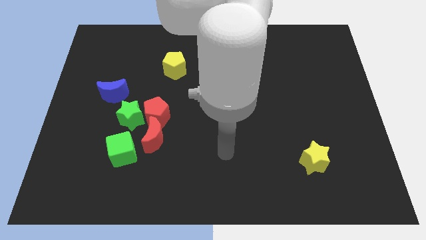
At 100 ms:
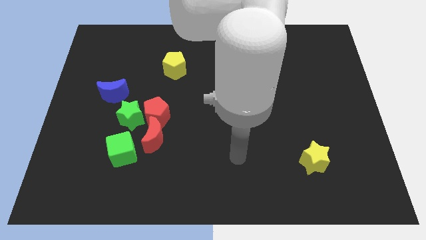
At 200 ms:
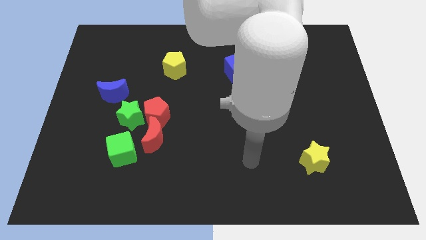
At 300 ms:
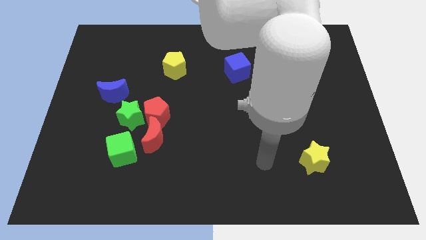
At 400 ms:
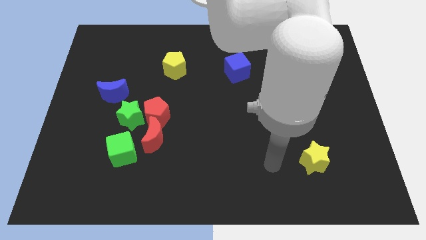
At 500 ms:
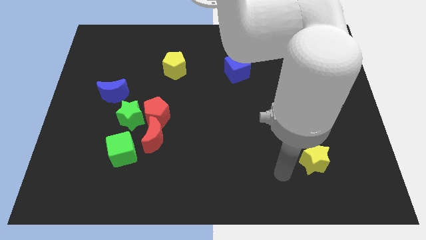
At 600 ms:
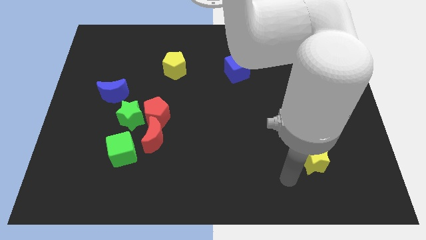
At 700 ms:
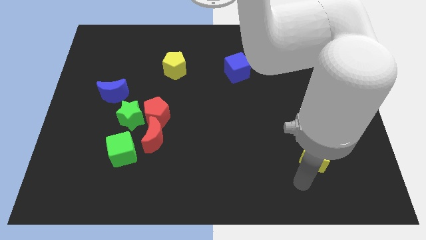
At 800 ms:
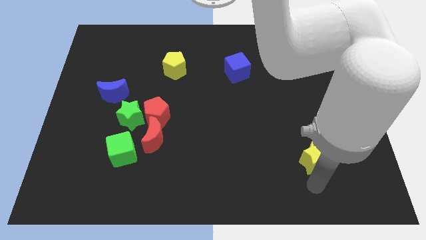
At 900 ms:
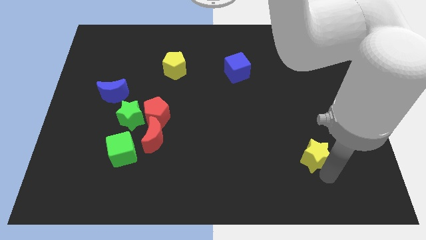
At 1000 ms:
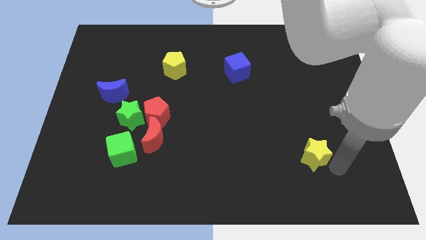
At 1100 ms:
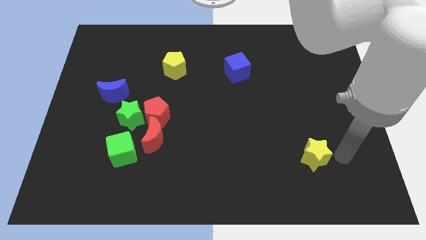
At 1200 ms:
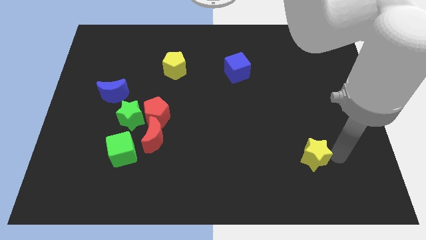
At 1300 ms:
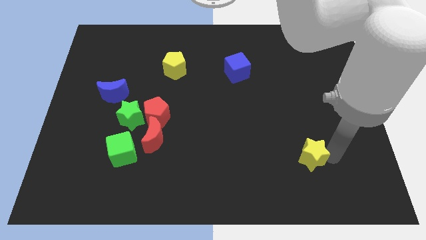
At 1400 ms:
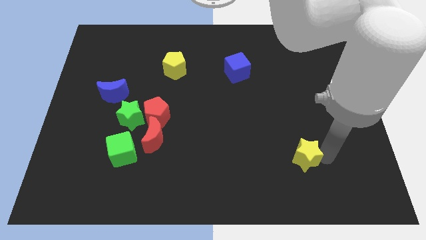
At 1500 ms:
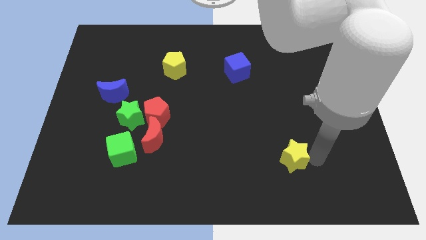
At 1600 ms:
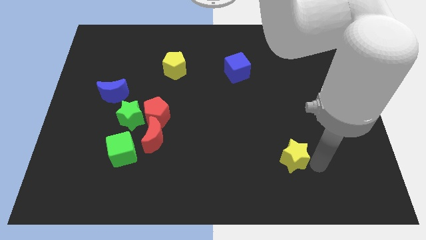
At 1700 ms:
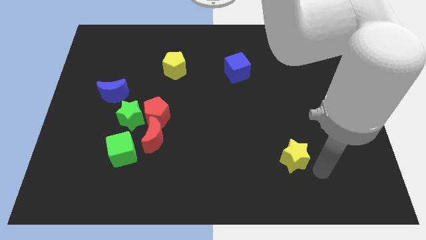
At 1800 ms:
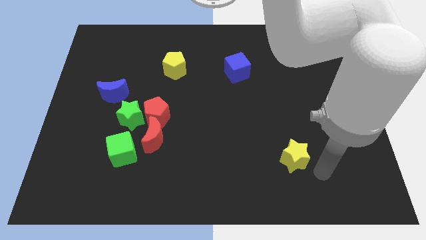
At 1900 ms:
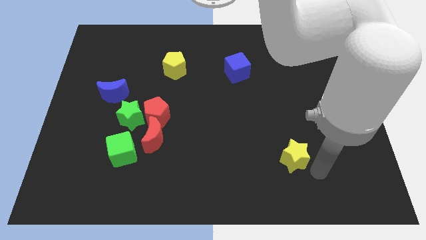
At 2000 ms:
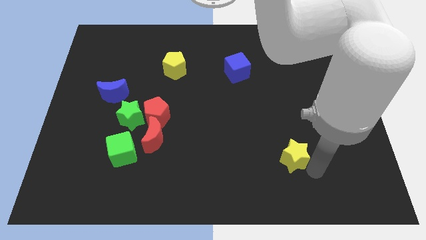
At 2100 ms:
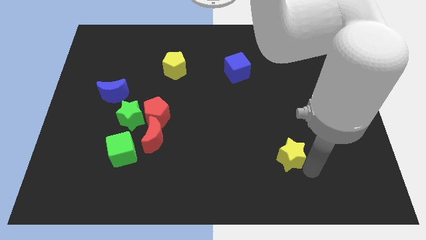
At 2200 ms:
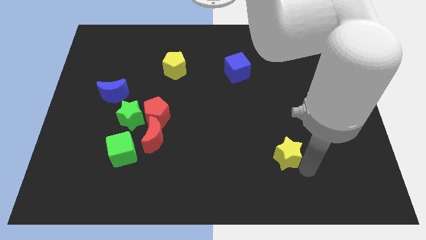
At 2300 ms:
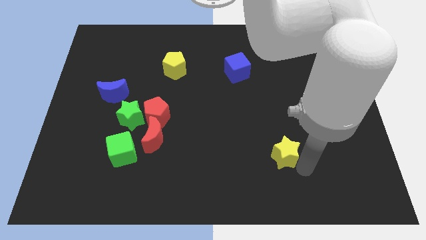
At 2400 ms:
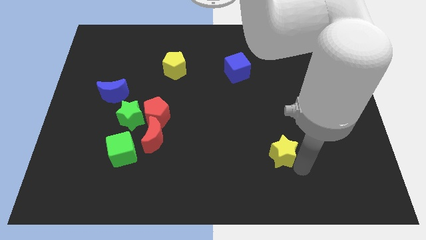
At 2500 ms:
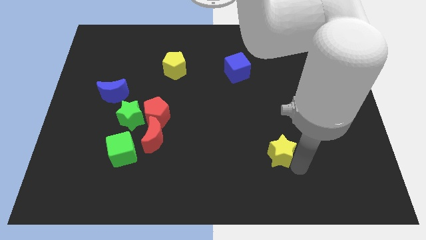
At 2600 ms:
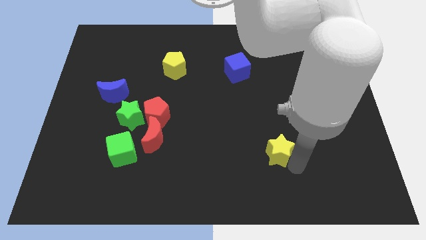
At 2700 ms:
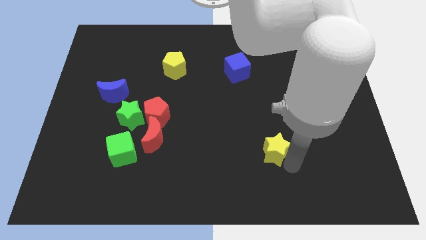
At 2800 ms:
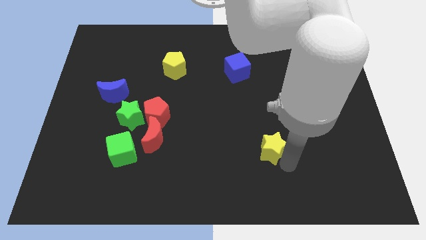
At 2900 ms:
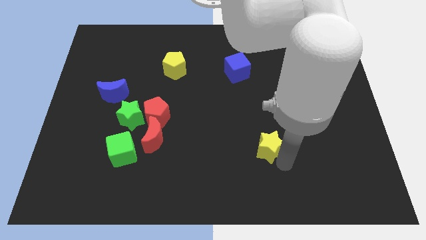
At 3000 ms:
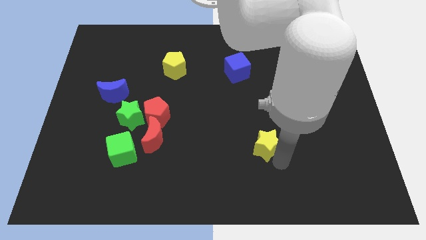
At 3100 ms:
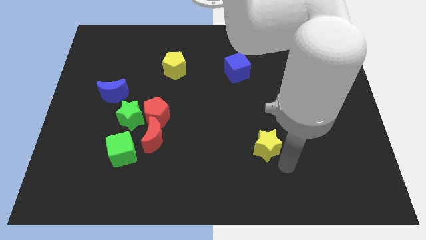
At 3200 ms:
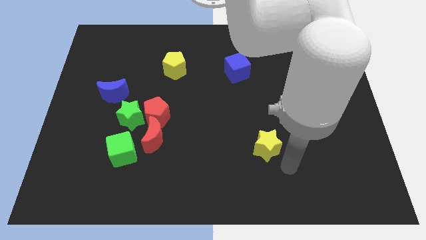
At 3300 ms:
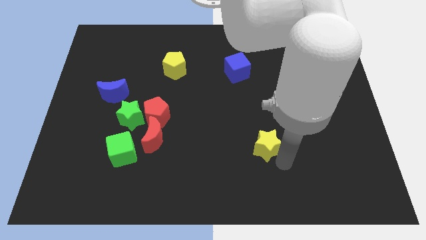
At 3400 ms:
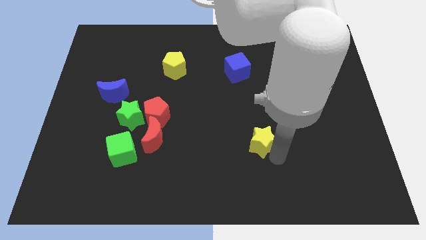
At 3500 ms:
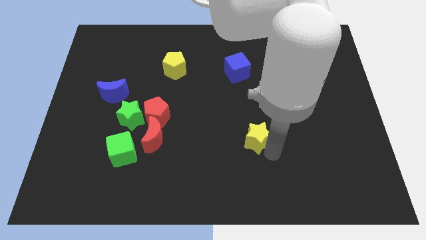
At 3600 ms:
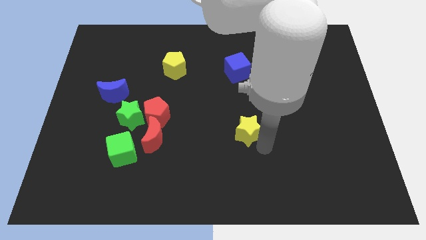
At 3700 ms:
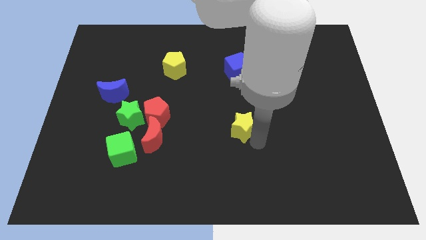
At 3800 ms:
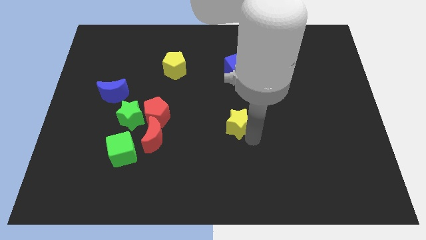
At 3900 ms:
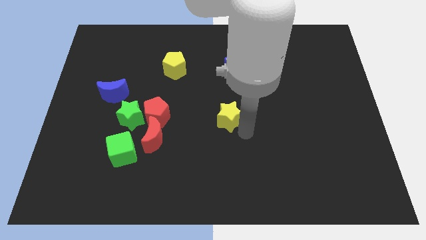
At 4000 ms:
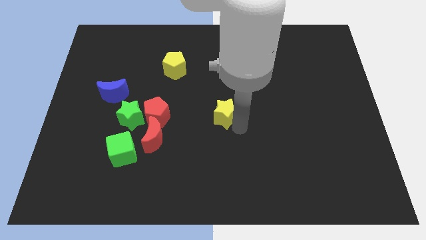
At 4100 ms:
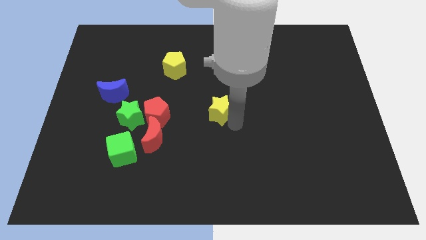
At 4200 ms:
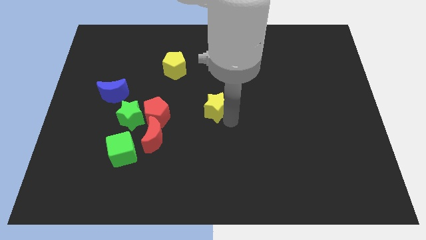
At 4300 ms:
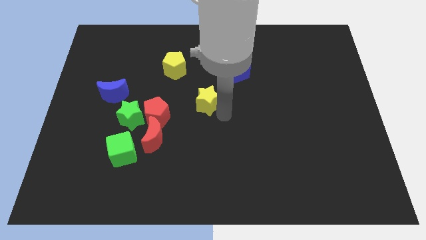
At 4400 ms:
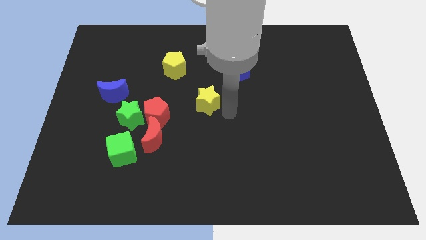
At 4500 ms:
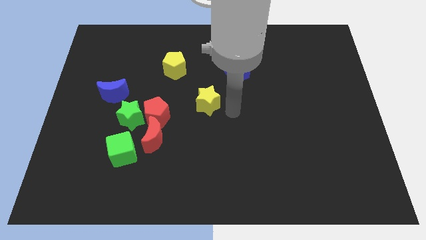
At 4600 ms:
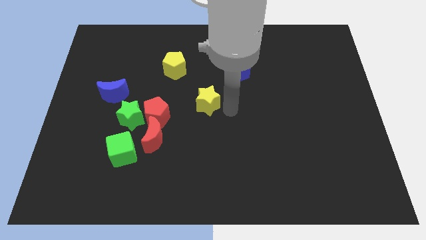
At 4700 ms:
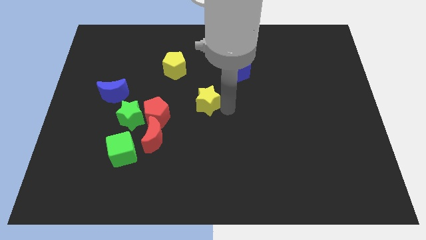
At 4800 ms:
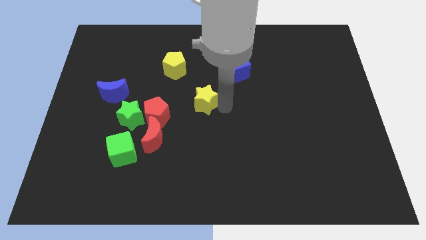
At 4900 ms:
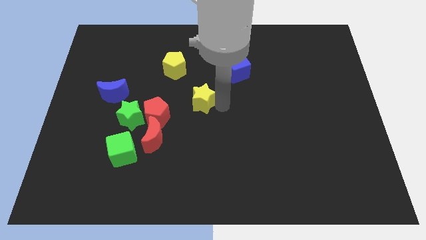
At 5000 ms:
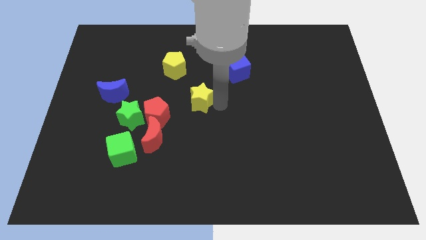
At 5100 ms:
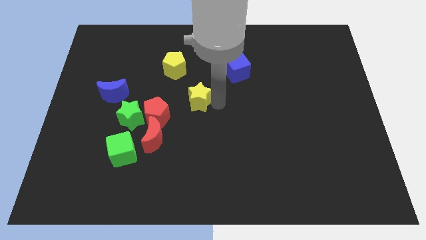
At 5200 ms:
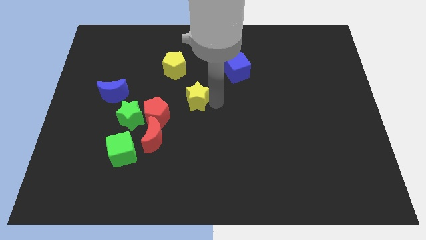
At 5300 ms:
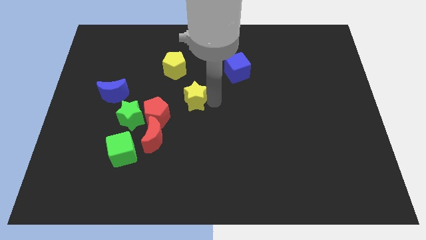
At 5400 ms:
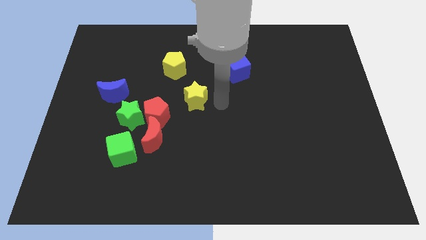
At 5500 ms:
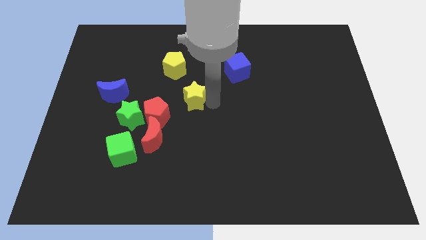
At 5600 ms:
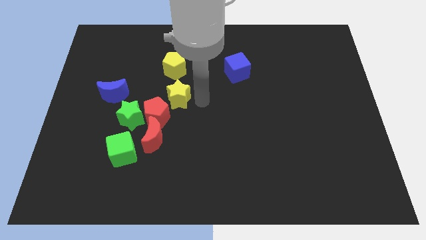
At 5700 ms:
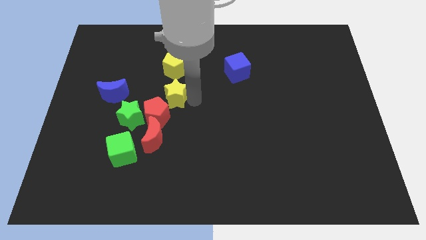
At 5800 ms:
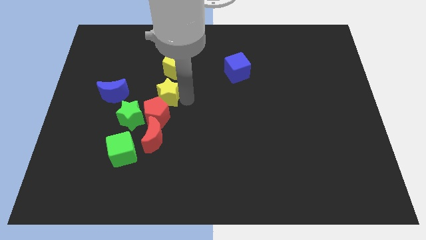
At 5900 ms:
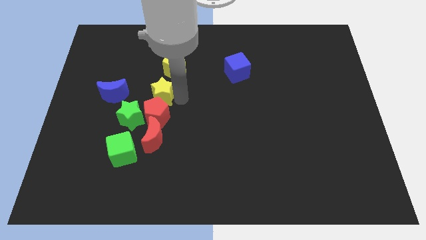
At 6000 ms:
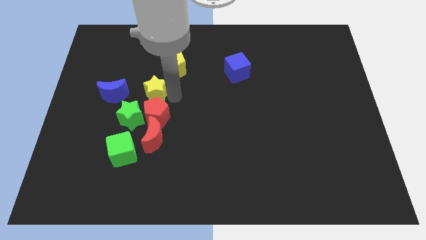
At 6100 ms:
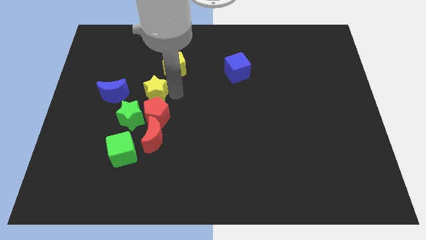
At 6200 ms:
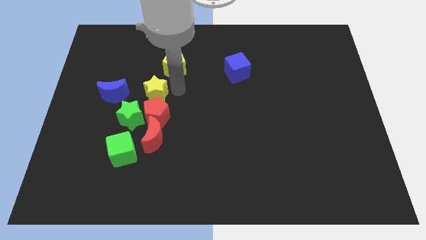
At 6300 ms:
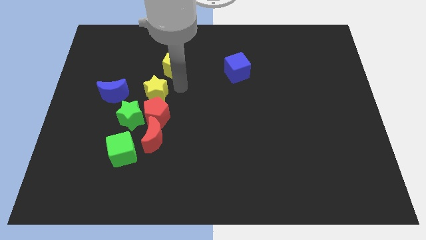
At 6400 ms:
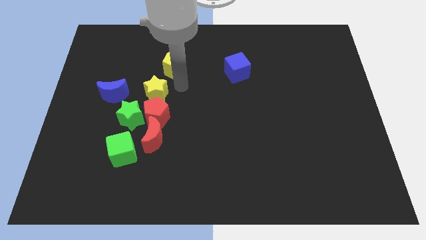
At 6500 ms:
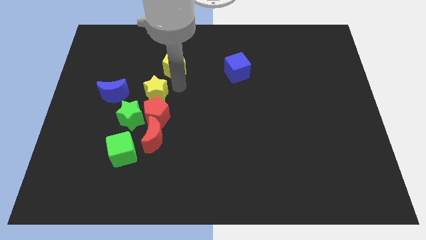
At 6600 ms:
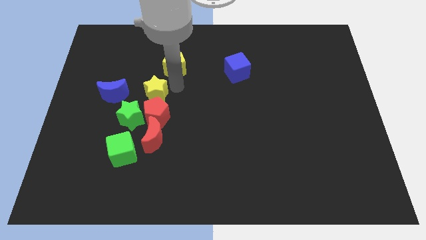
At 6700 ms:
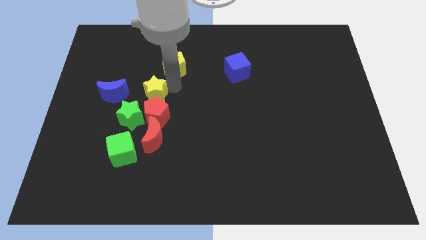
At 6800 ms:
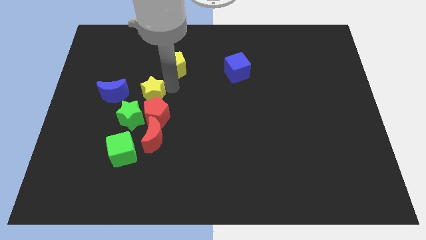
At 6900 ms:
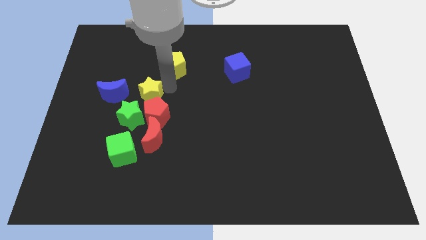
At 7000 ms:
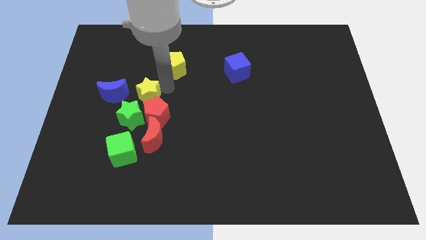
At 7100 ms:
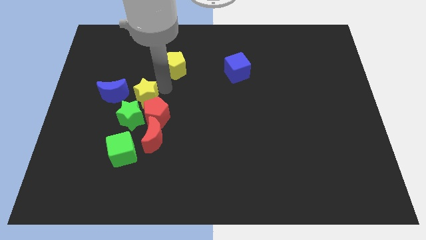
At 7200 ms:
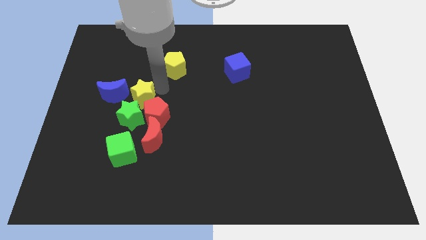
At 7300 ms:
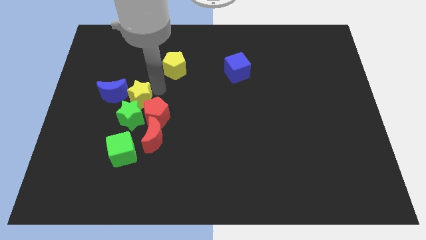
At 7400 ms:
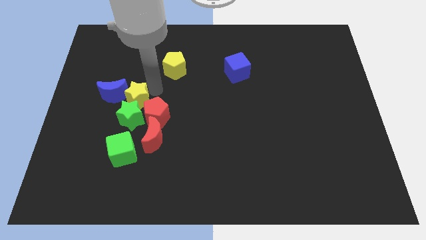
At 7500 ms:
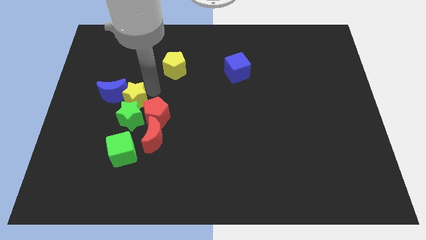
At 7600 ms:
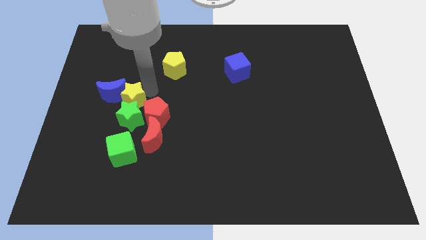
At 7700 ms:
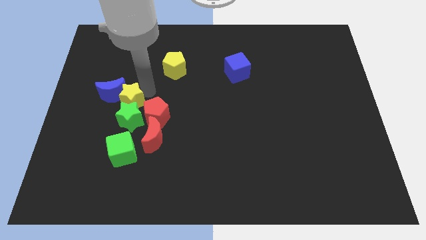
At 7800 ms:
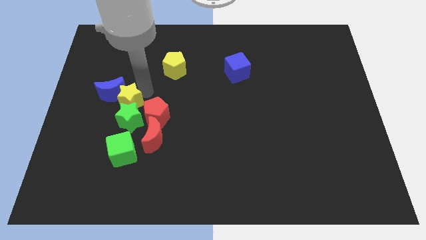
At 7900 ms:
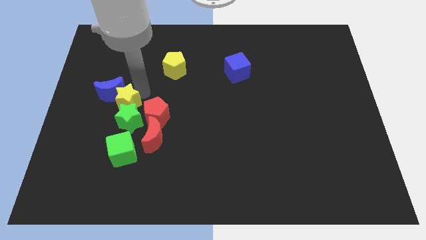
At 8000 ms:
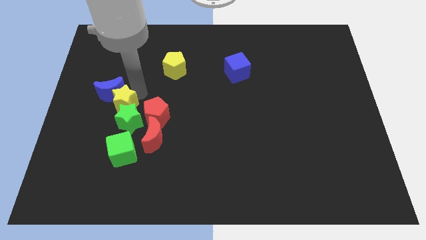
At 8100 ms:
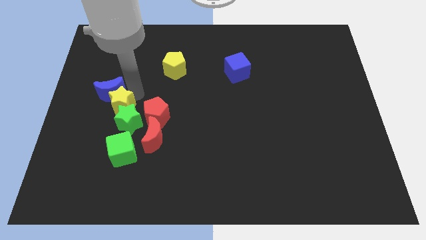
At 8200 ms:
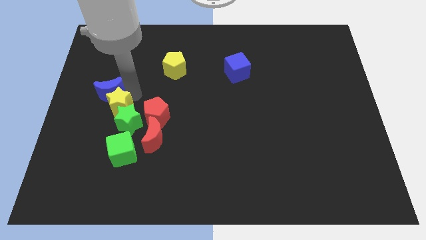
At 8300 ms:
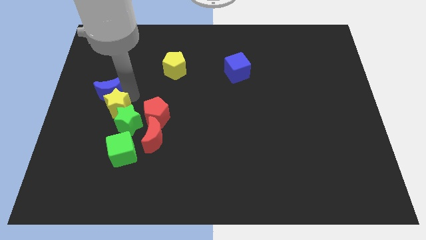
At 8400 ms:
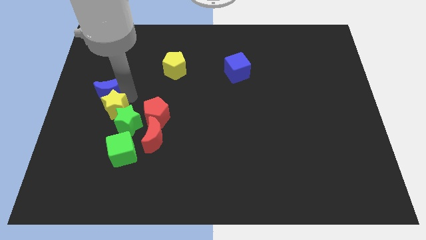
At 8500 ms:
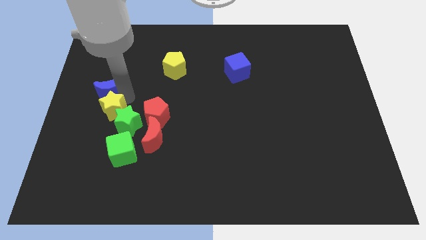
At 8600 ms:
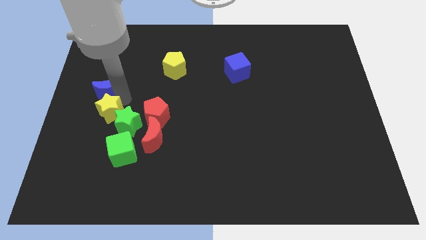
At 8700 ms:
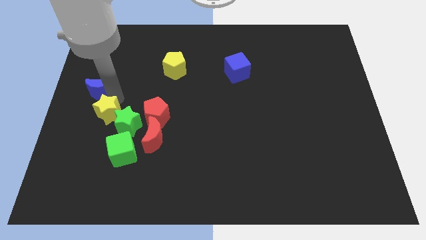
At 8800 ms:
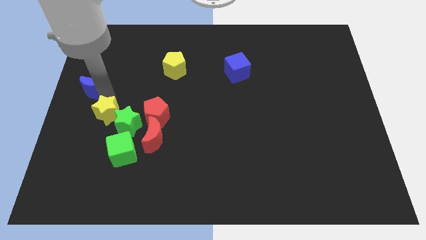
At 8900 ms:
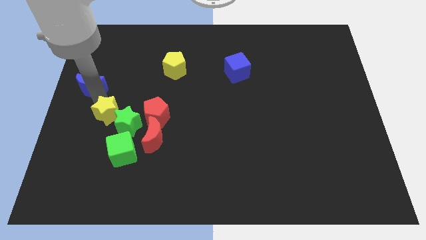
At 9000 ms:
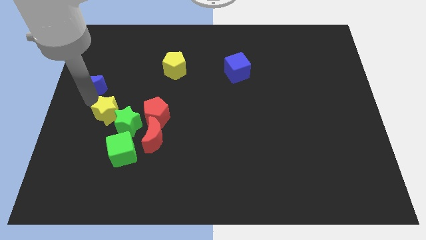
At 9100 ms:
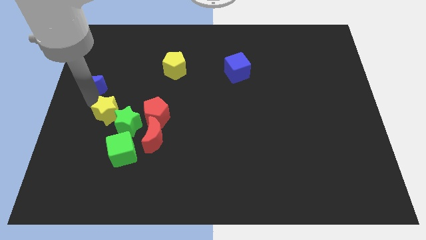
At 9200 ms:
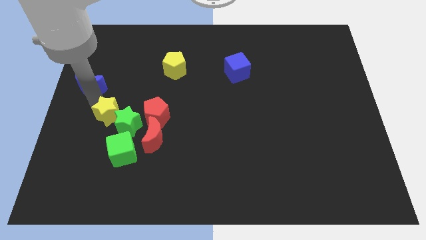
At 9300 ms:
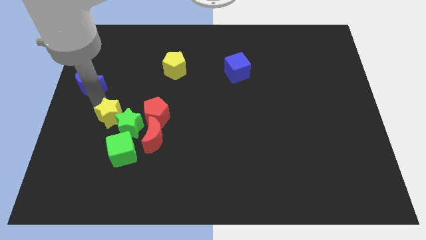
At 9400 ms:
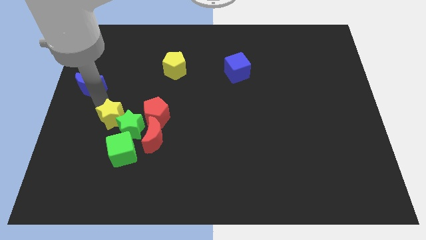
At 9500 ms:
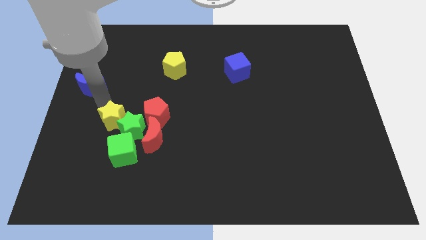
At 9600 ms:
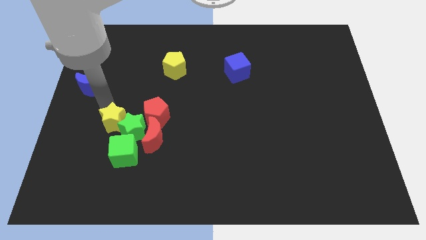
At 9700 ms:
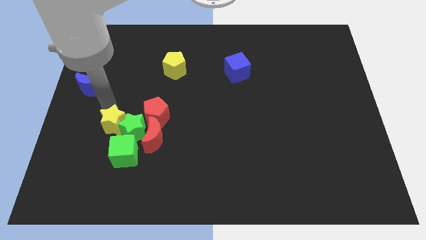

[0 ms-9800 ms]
push the yellow star to the bottom left side of the red pentagon
